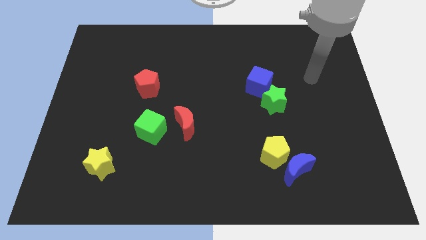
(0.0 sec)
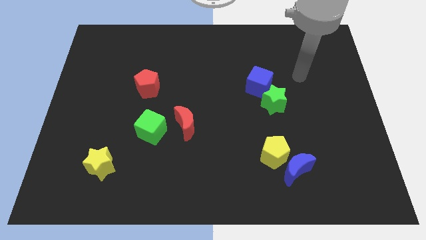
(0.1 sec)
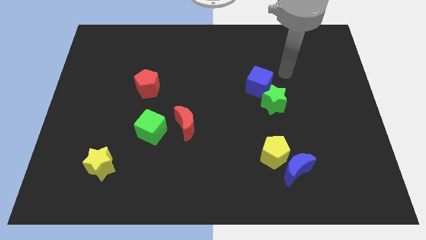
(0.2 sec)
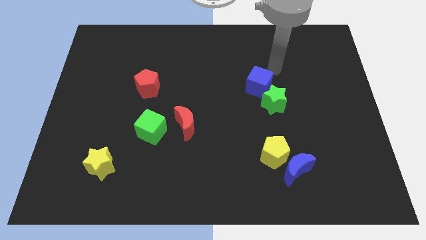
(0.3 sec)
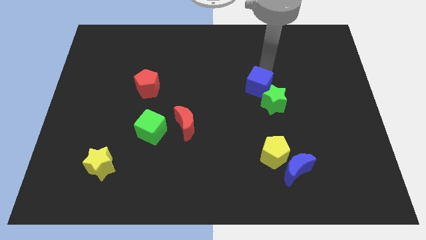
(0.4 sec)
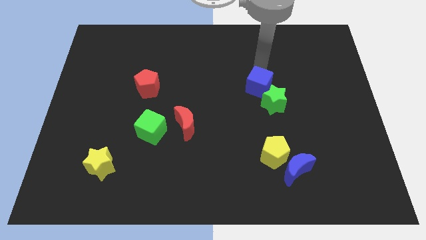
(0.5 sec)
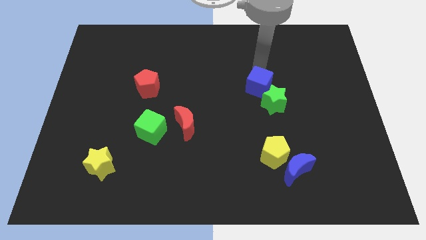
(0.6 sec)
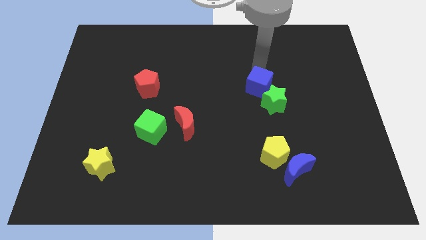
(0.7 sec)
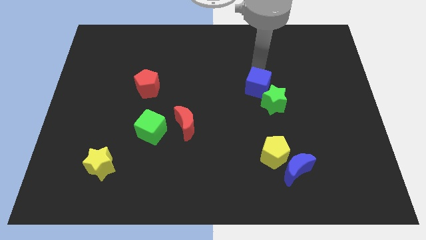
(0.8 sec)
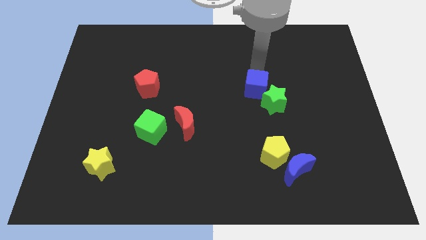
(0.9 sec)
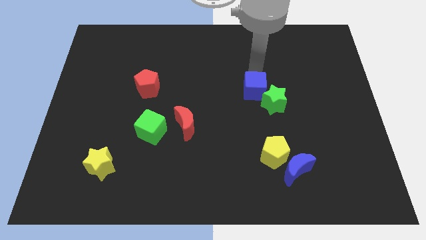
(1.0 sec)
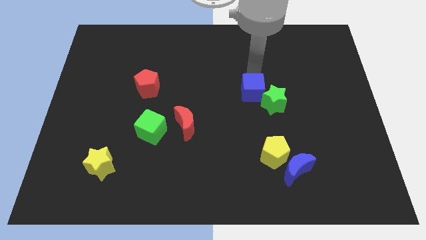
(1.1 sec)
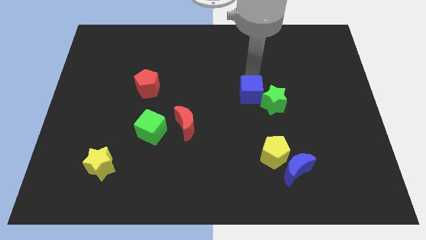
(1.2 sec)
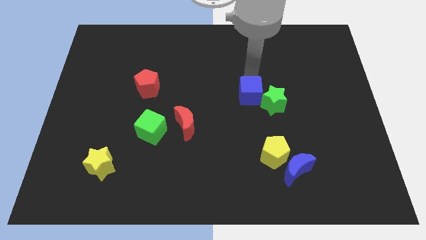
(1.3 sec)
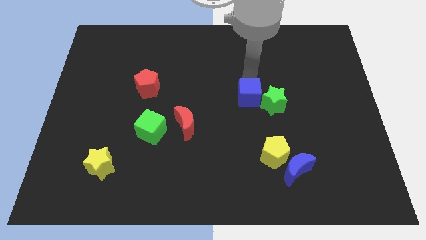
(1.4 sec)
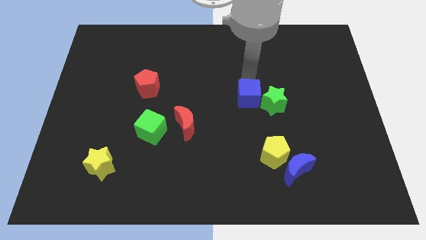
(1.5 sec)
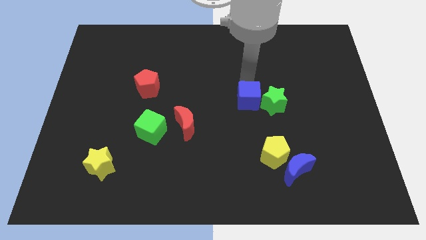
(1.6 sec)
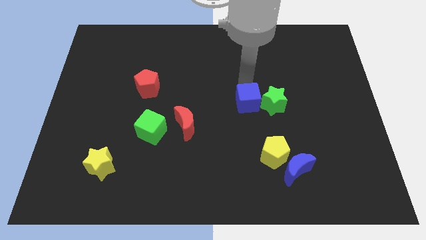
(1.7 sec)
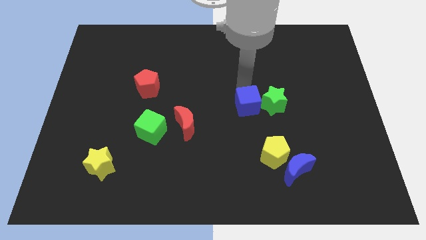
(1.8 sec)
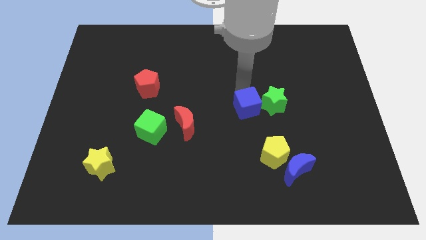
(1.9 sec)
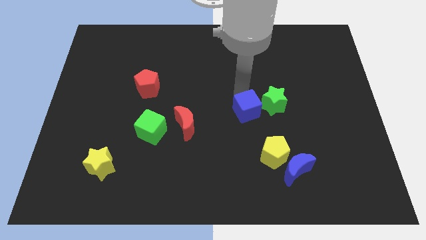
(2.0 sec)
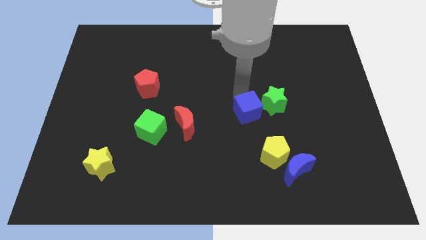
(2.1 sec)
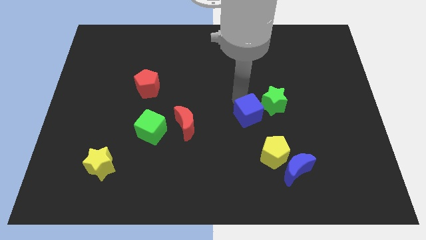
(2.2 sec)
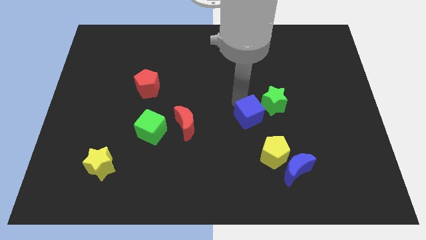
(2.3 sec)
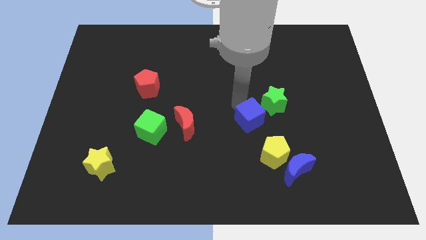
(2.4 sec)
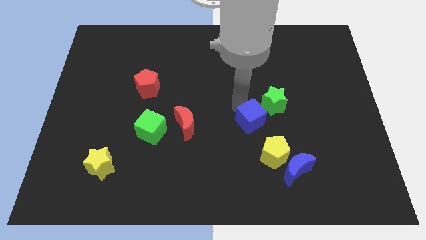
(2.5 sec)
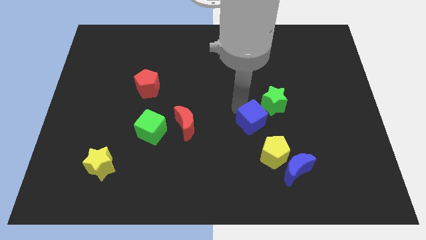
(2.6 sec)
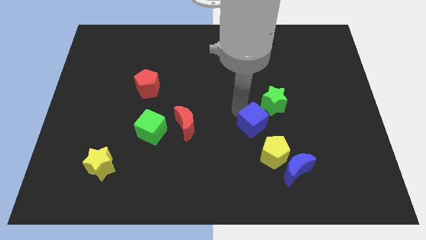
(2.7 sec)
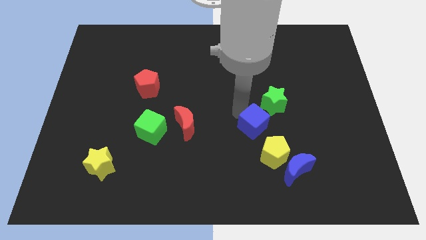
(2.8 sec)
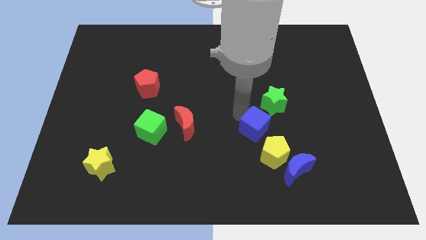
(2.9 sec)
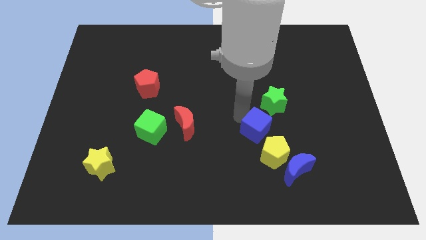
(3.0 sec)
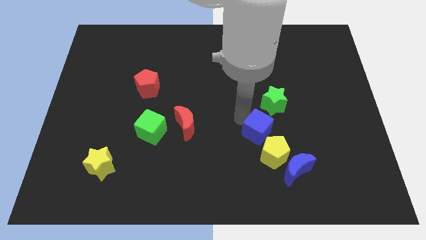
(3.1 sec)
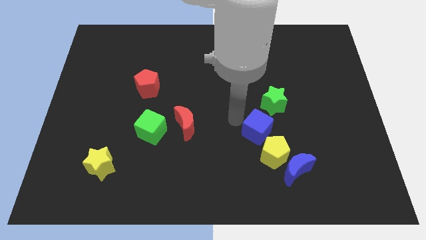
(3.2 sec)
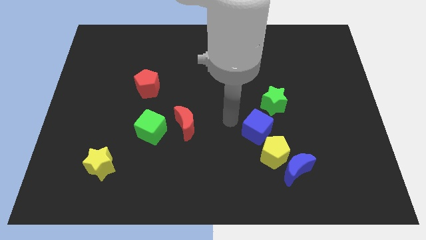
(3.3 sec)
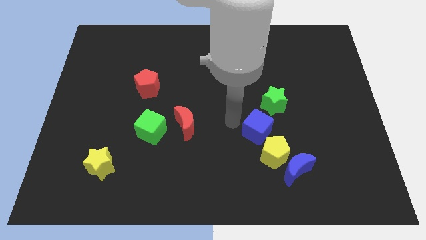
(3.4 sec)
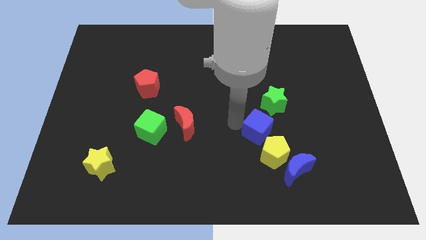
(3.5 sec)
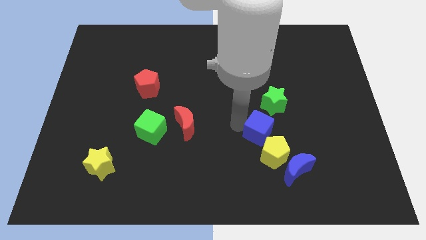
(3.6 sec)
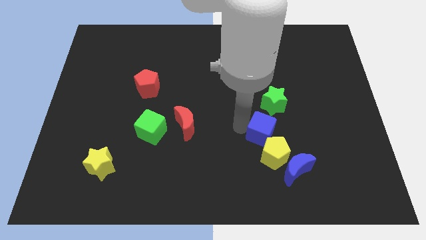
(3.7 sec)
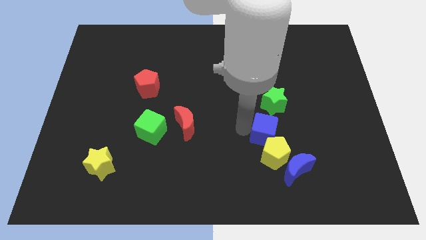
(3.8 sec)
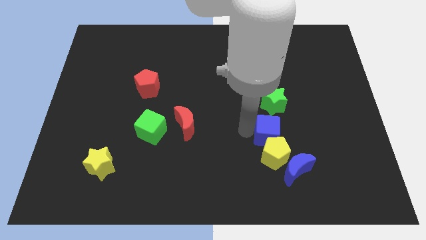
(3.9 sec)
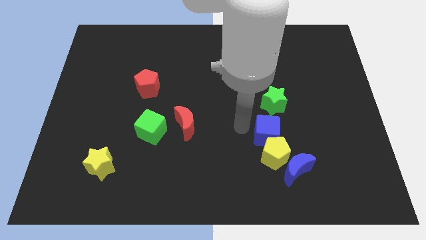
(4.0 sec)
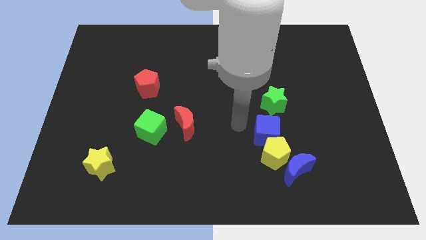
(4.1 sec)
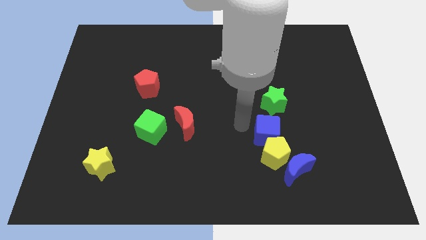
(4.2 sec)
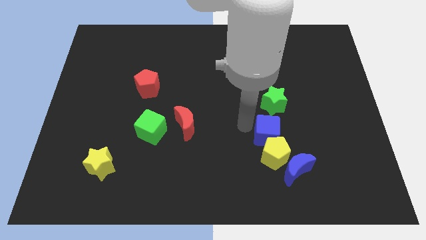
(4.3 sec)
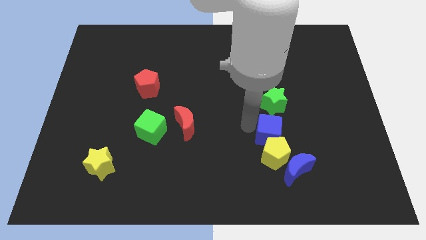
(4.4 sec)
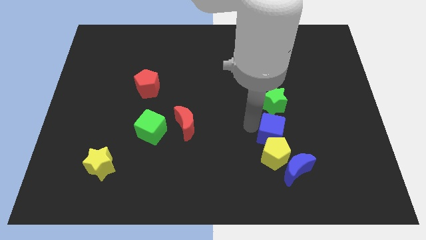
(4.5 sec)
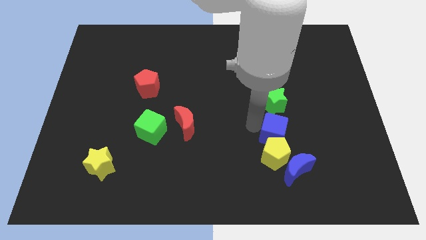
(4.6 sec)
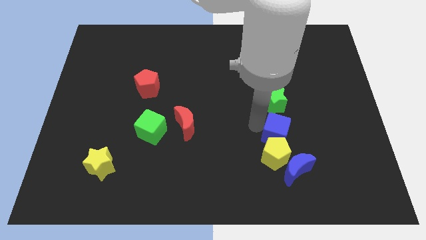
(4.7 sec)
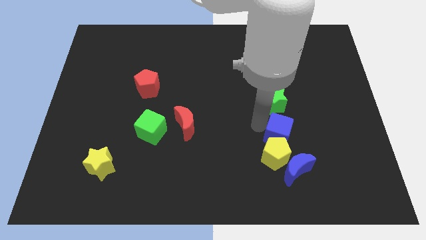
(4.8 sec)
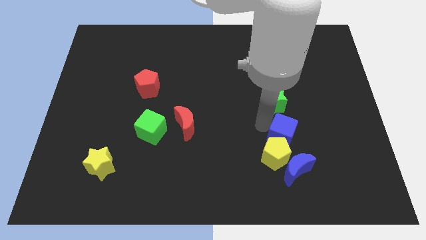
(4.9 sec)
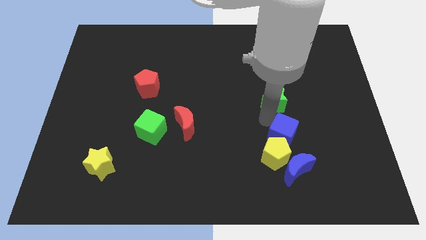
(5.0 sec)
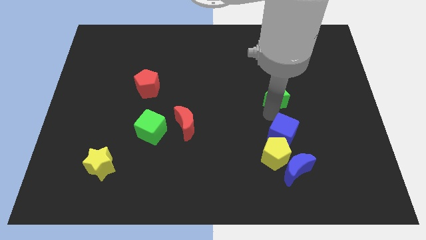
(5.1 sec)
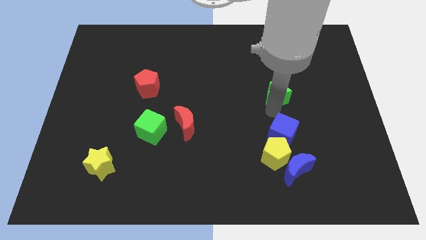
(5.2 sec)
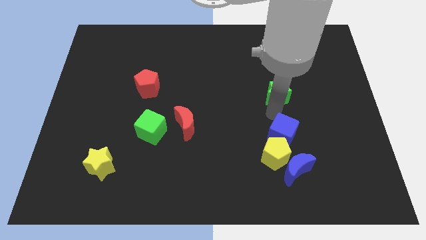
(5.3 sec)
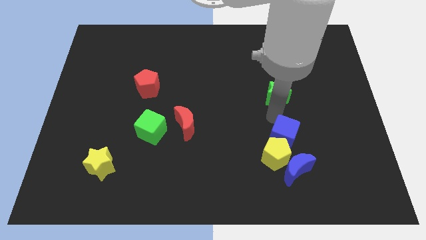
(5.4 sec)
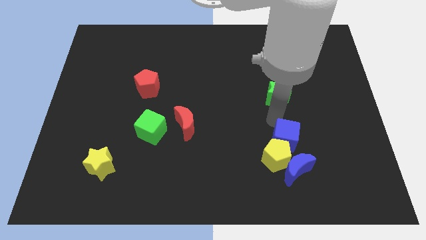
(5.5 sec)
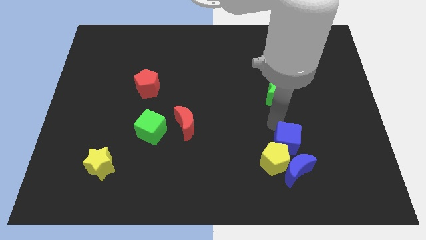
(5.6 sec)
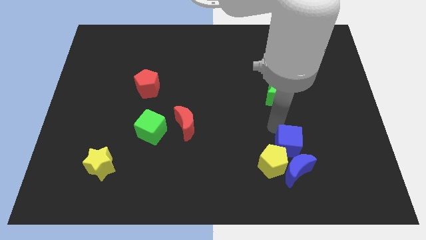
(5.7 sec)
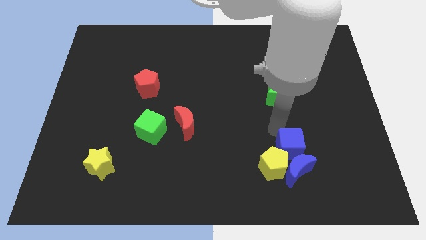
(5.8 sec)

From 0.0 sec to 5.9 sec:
move the blue cube close to the blue moon

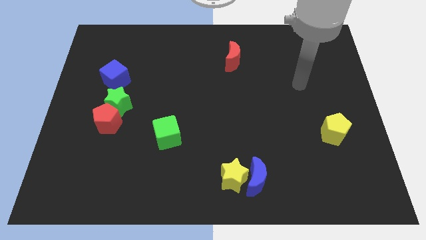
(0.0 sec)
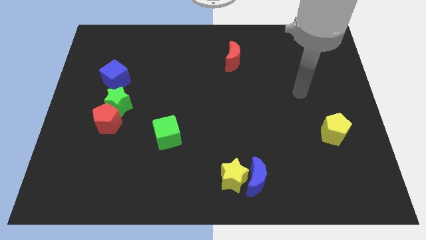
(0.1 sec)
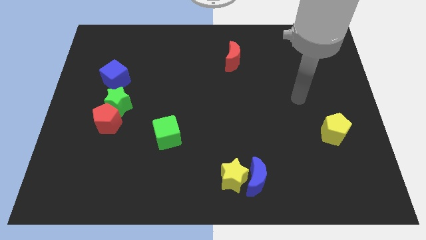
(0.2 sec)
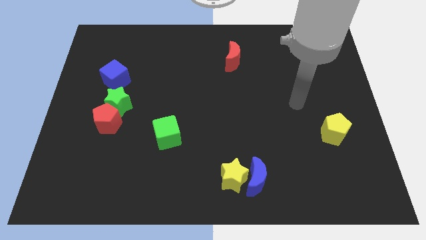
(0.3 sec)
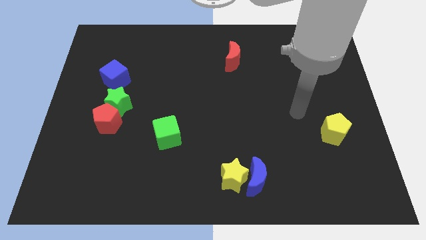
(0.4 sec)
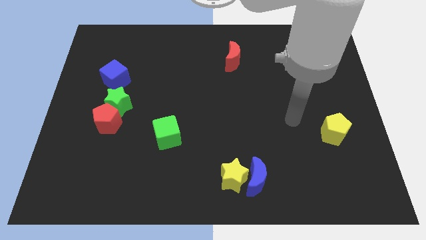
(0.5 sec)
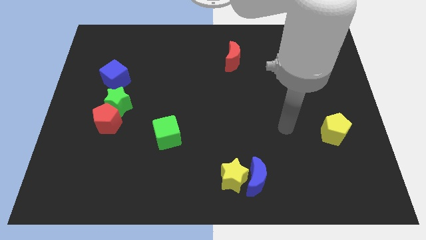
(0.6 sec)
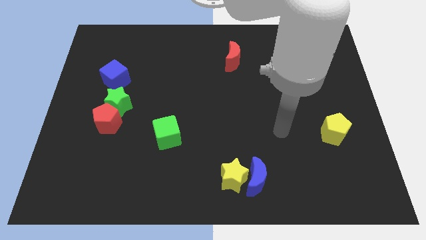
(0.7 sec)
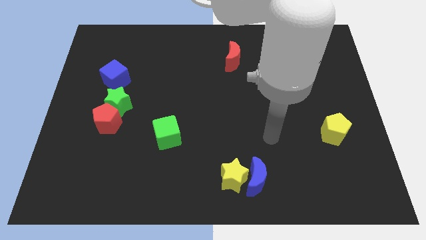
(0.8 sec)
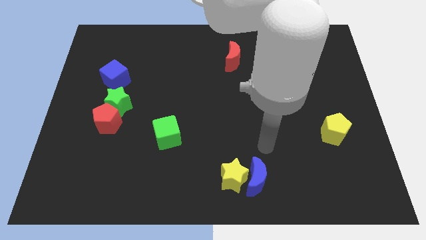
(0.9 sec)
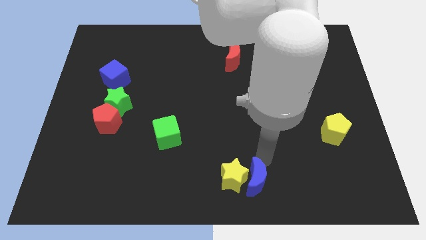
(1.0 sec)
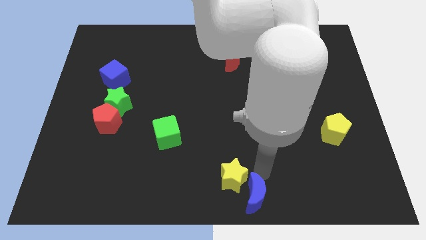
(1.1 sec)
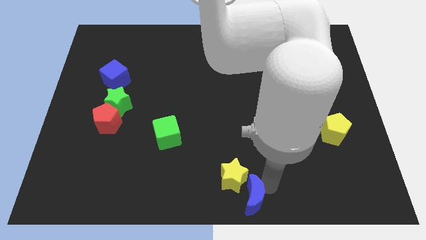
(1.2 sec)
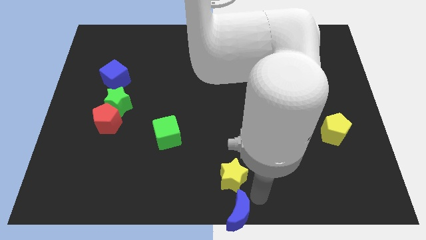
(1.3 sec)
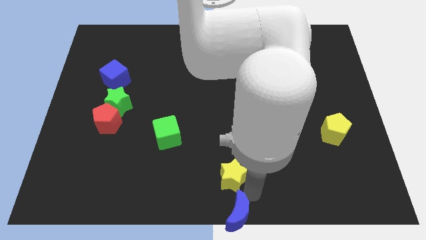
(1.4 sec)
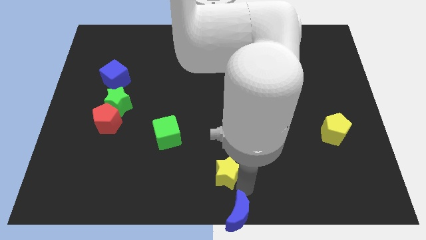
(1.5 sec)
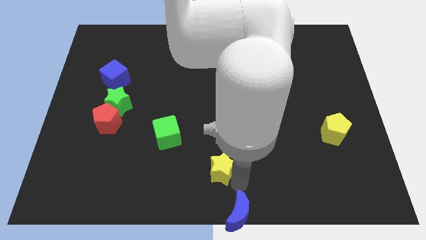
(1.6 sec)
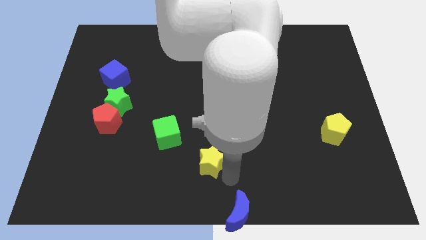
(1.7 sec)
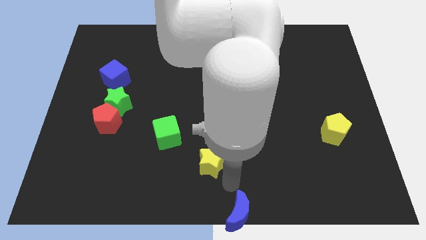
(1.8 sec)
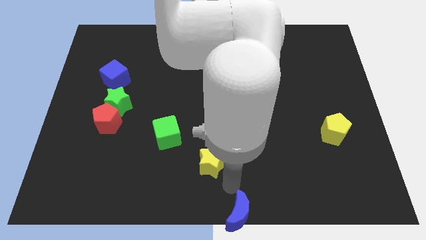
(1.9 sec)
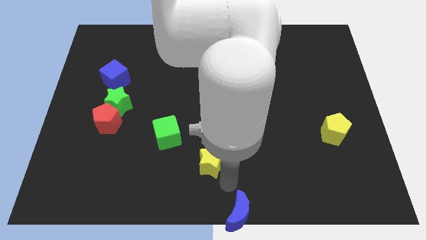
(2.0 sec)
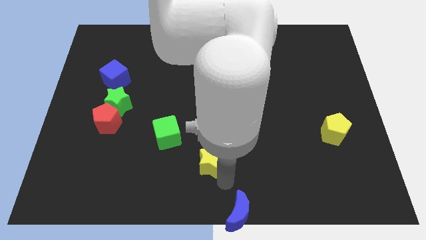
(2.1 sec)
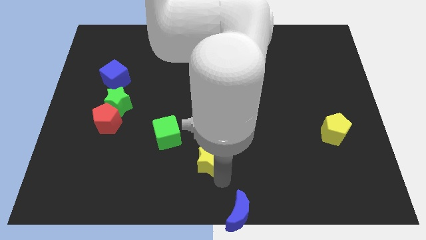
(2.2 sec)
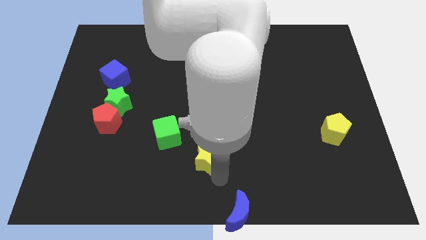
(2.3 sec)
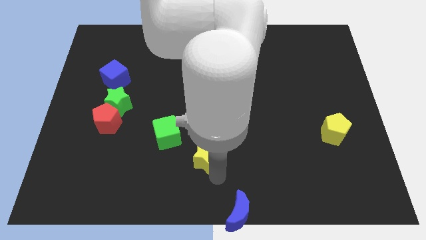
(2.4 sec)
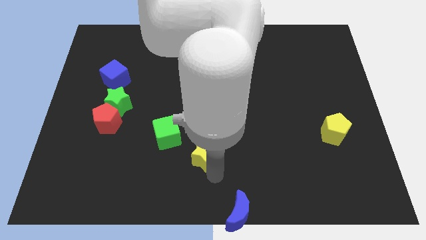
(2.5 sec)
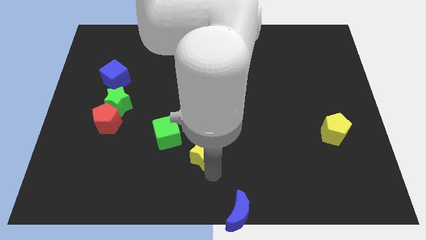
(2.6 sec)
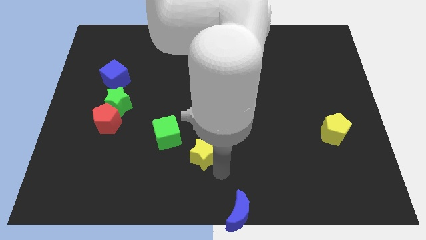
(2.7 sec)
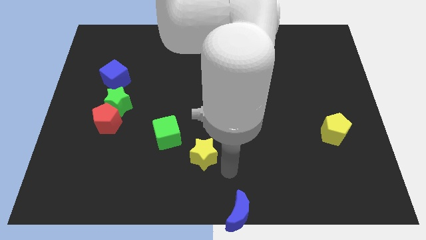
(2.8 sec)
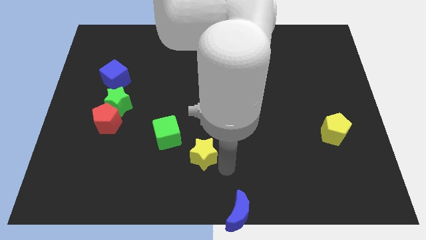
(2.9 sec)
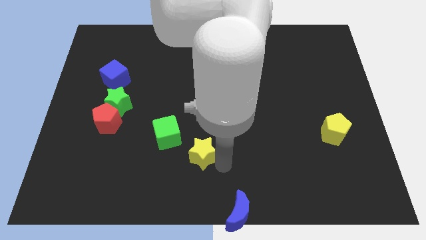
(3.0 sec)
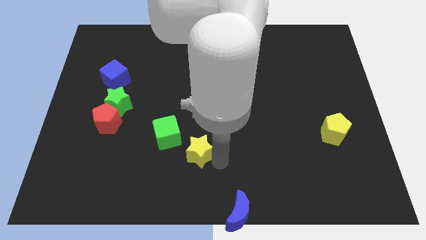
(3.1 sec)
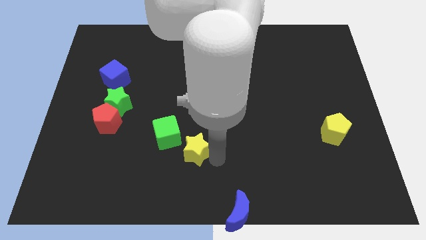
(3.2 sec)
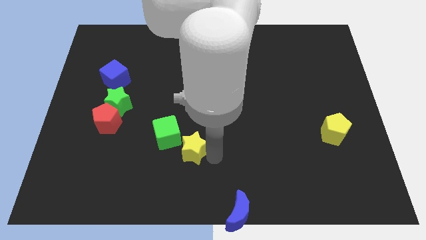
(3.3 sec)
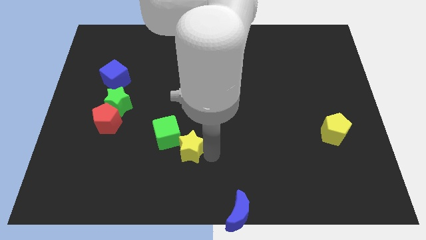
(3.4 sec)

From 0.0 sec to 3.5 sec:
put the yellow star close to the green cube
